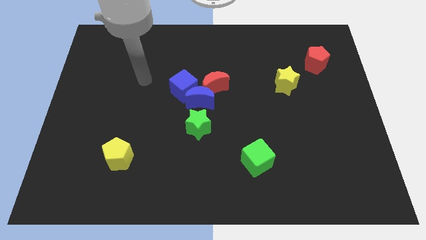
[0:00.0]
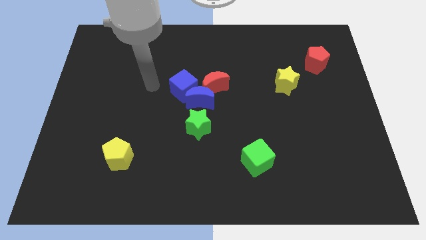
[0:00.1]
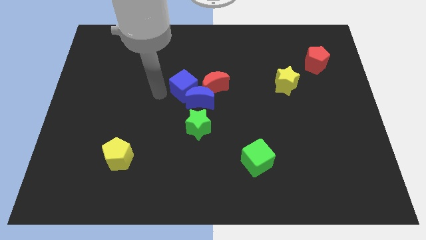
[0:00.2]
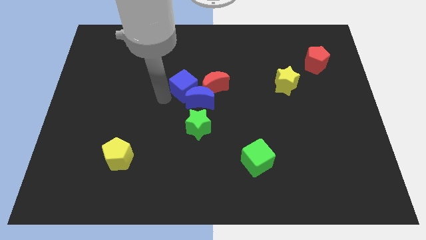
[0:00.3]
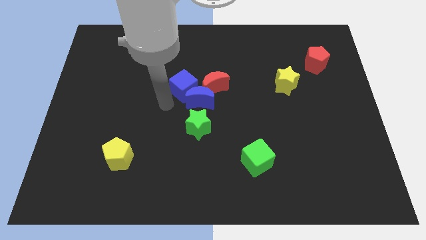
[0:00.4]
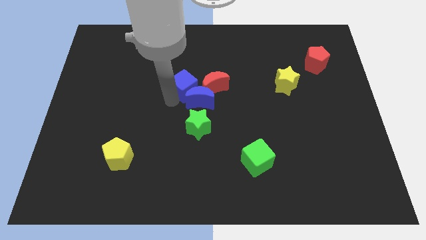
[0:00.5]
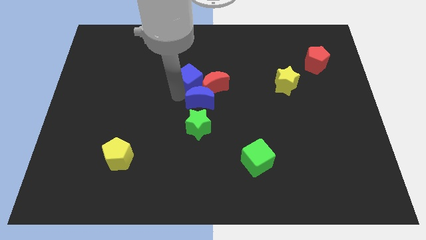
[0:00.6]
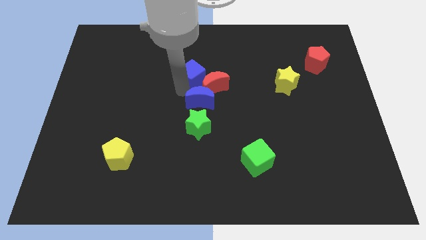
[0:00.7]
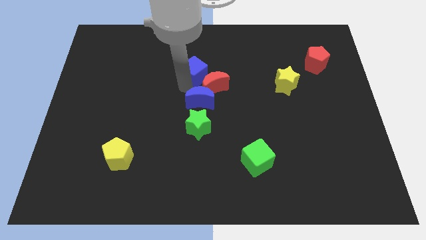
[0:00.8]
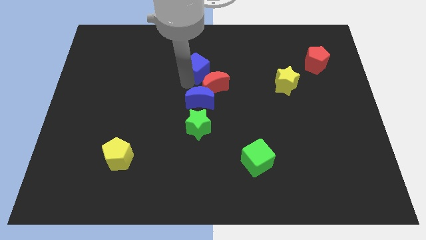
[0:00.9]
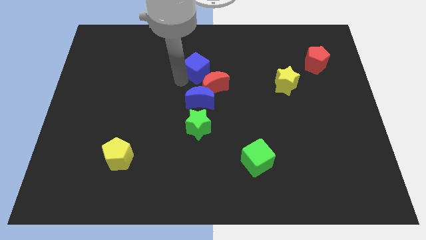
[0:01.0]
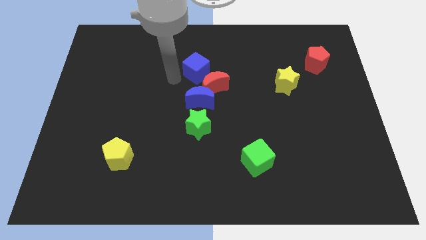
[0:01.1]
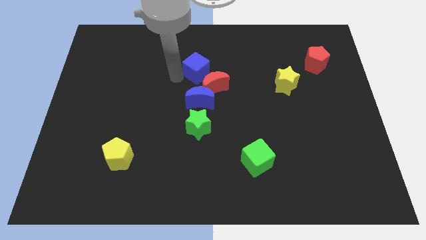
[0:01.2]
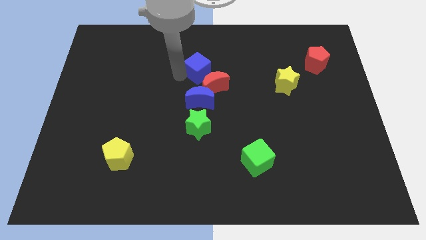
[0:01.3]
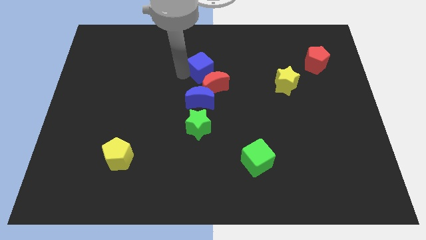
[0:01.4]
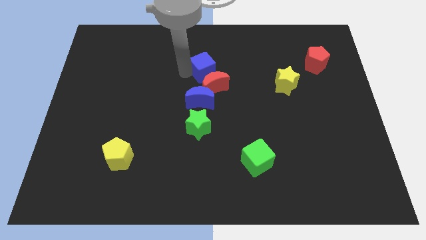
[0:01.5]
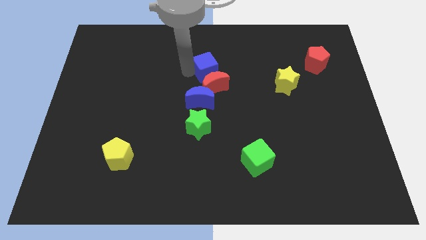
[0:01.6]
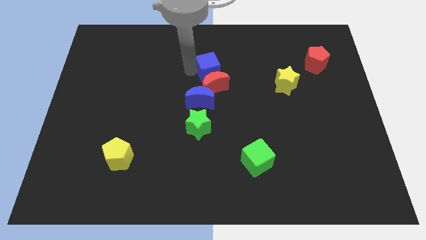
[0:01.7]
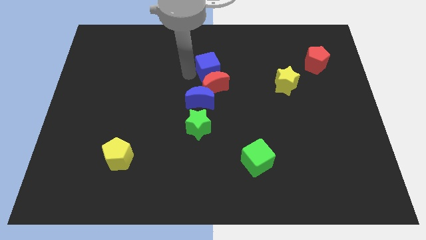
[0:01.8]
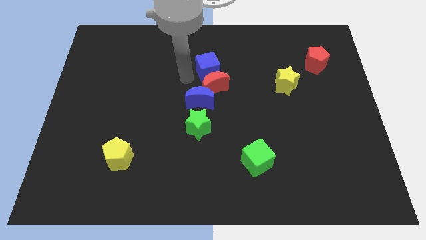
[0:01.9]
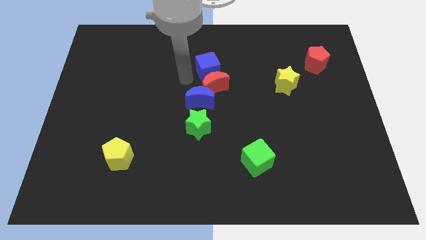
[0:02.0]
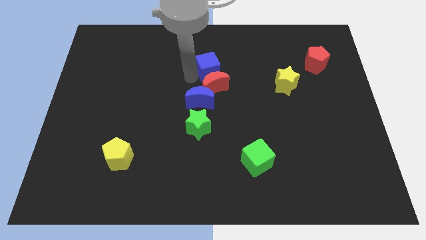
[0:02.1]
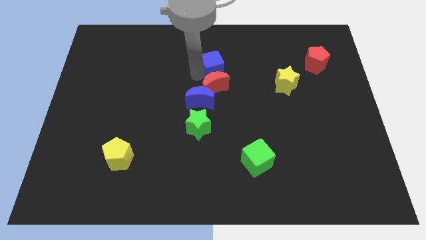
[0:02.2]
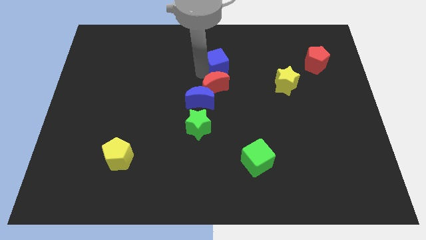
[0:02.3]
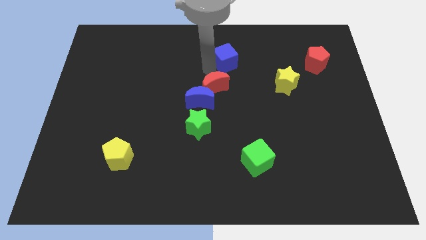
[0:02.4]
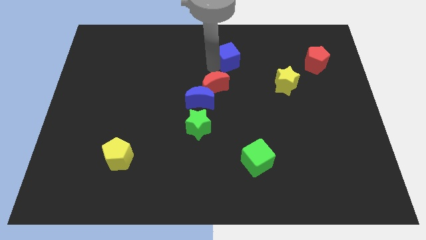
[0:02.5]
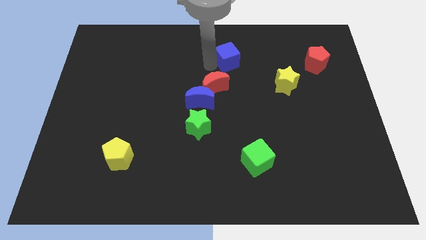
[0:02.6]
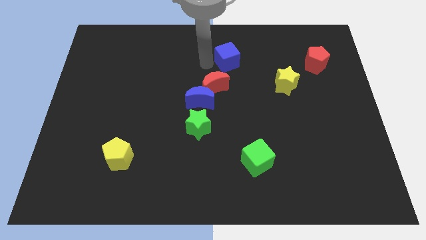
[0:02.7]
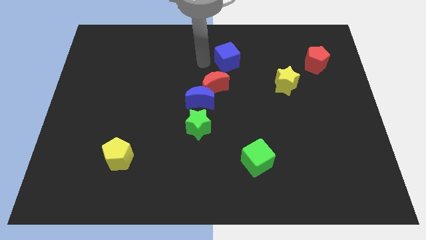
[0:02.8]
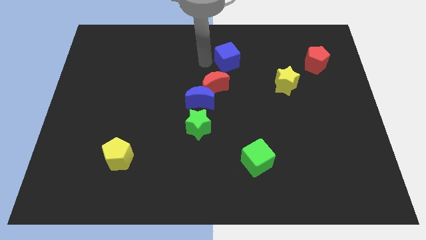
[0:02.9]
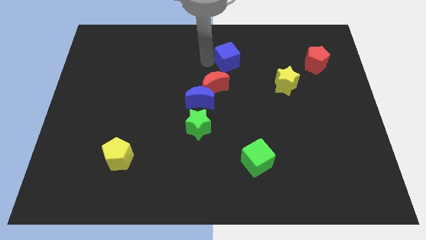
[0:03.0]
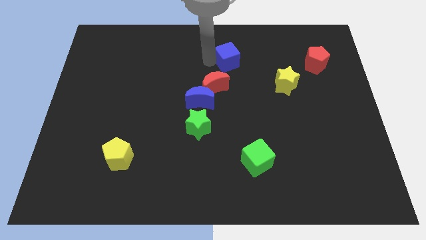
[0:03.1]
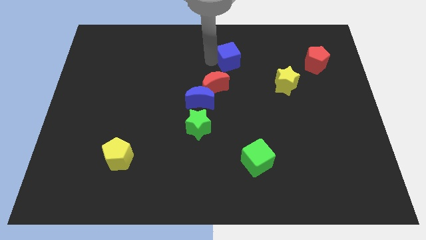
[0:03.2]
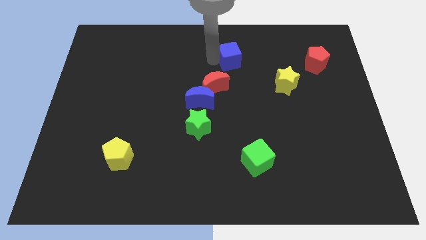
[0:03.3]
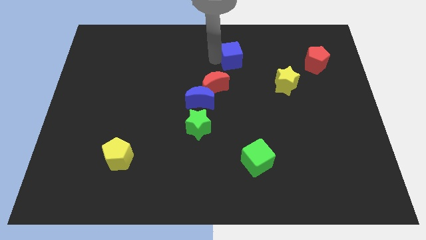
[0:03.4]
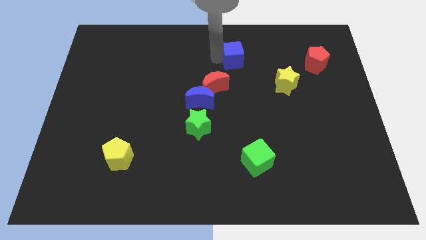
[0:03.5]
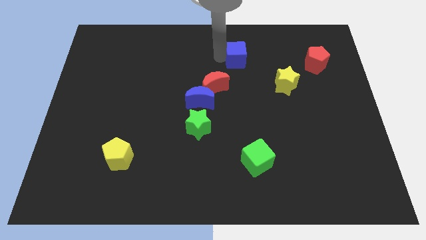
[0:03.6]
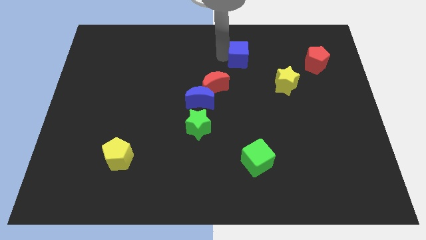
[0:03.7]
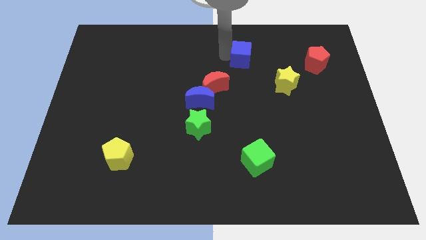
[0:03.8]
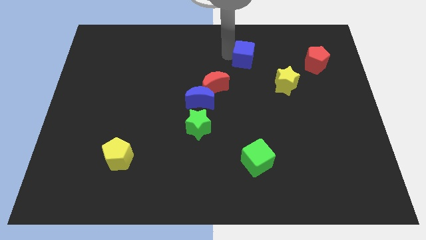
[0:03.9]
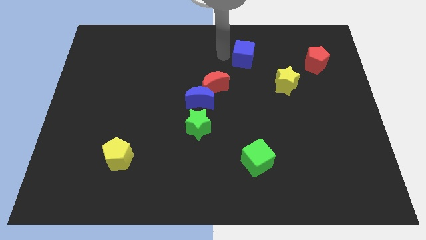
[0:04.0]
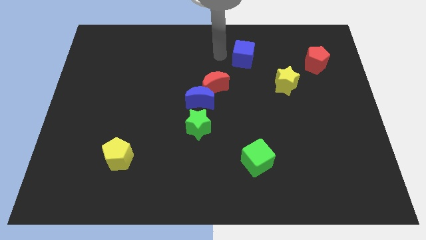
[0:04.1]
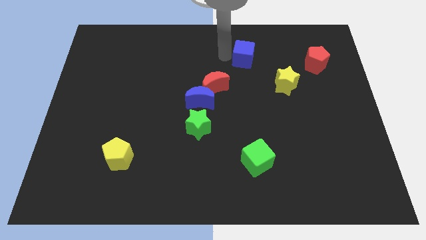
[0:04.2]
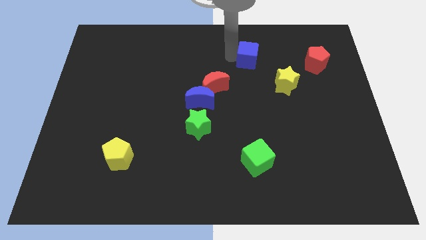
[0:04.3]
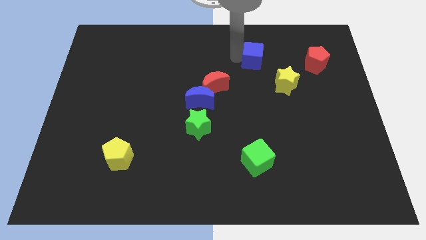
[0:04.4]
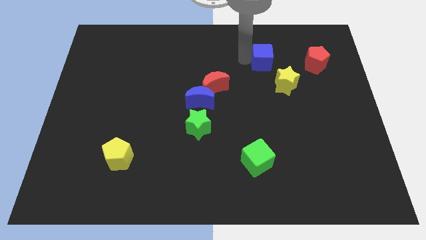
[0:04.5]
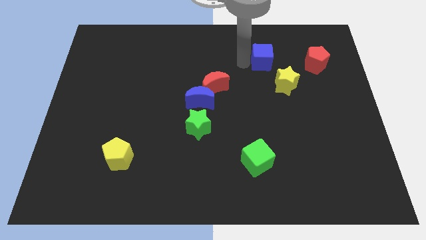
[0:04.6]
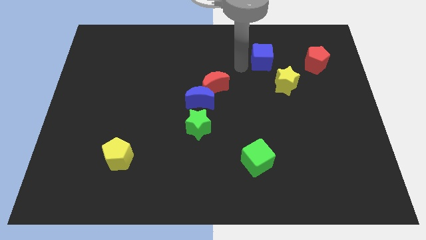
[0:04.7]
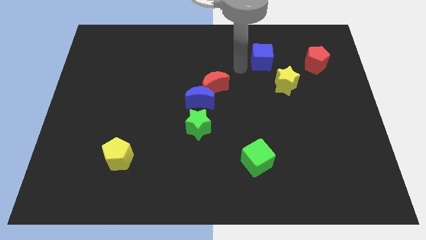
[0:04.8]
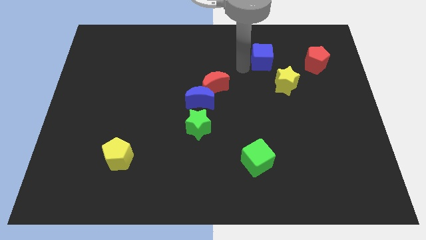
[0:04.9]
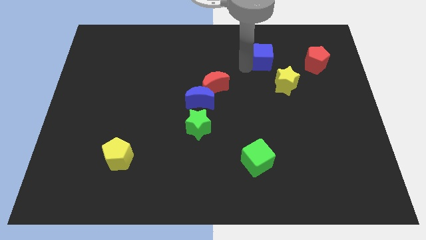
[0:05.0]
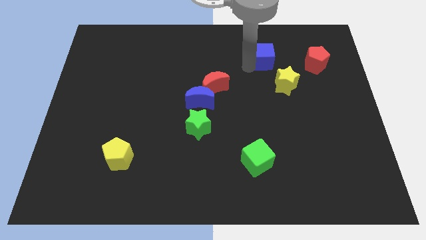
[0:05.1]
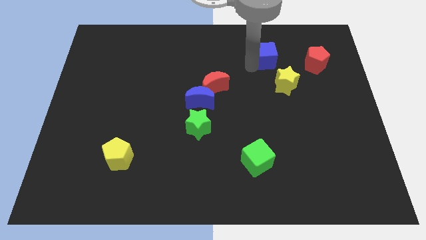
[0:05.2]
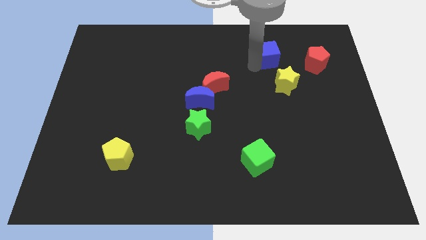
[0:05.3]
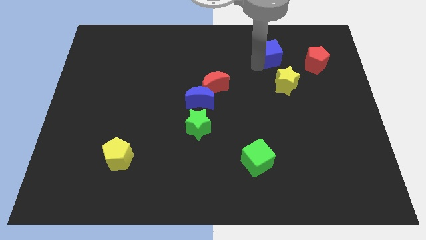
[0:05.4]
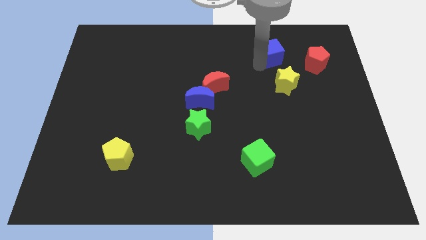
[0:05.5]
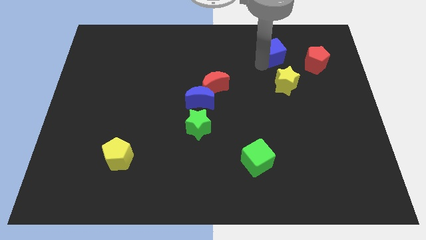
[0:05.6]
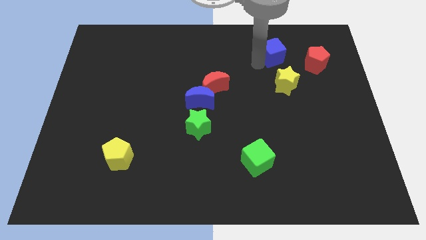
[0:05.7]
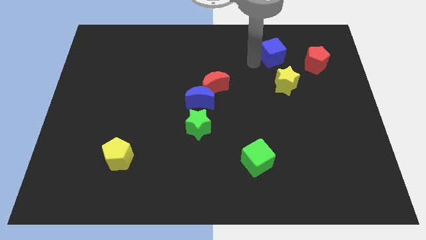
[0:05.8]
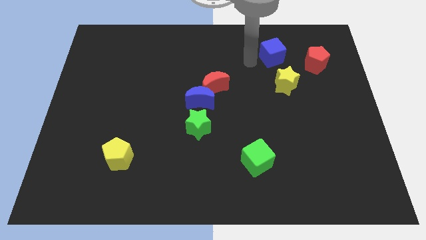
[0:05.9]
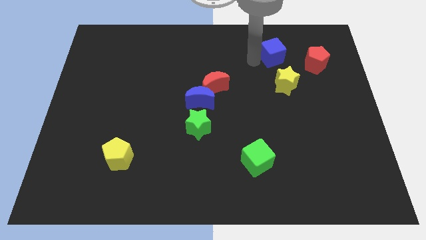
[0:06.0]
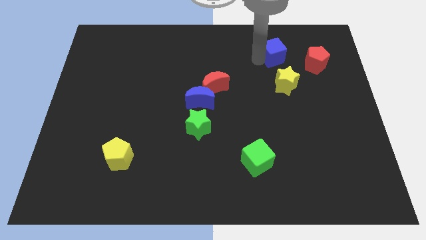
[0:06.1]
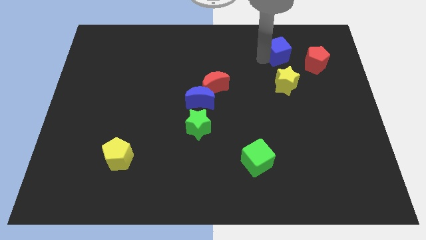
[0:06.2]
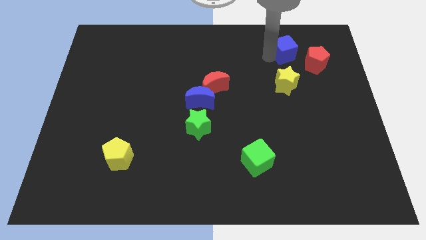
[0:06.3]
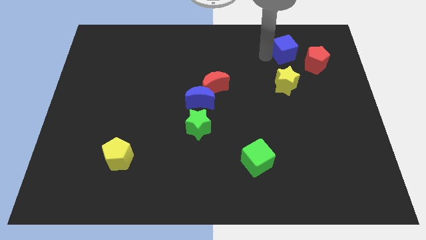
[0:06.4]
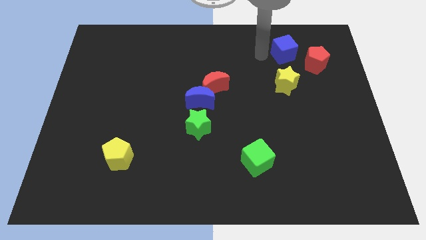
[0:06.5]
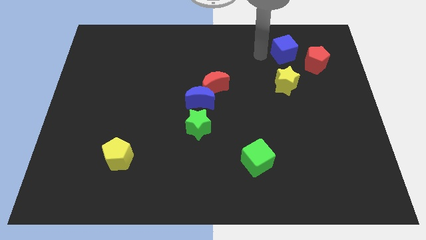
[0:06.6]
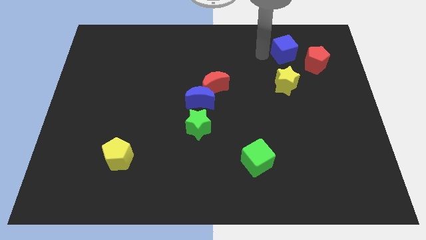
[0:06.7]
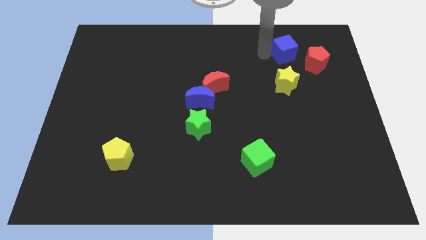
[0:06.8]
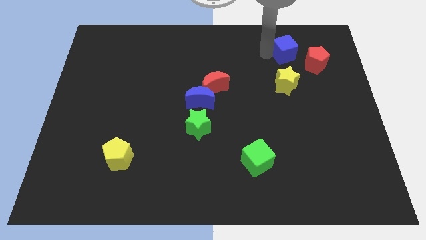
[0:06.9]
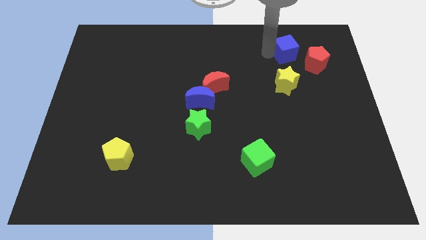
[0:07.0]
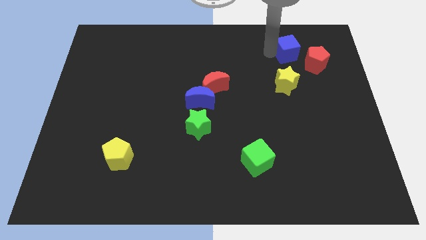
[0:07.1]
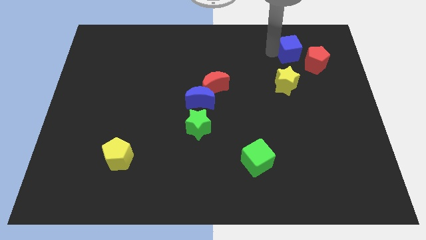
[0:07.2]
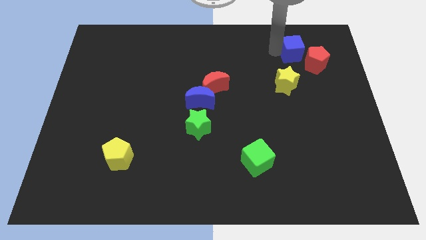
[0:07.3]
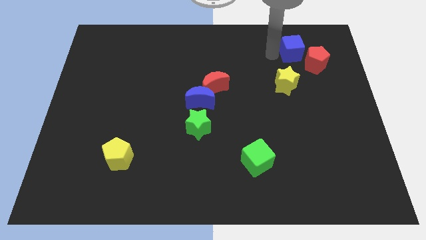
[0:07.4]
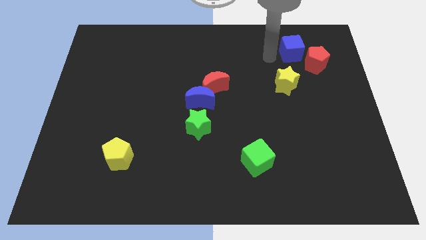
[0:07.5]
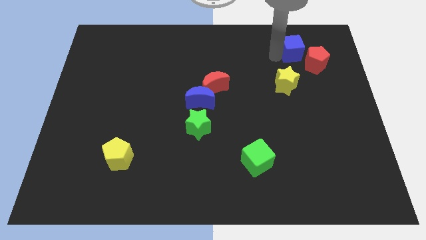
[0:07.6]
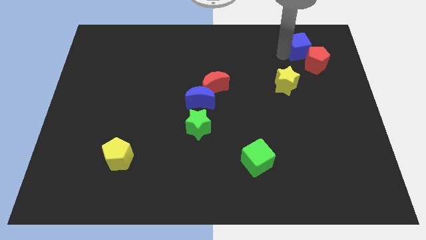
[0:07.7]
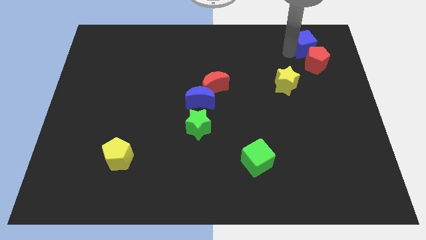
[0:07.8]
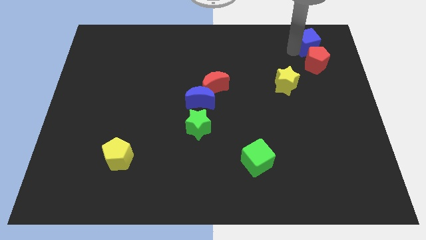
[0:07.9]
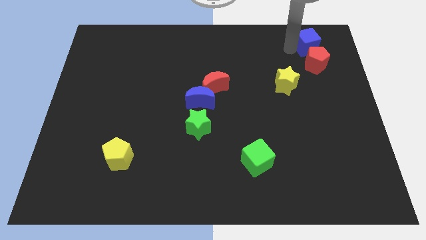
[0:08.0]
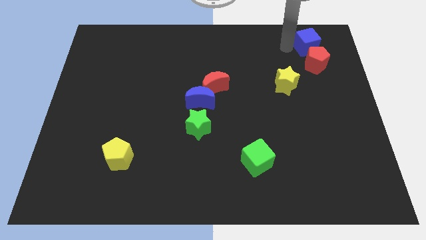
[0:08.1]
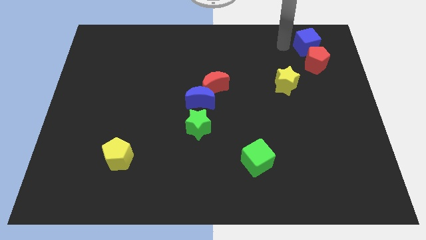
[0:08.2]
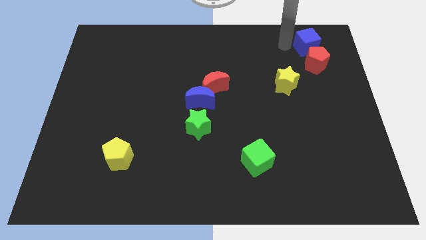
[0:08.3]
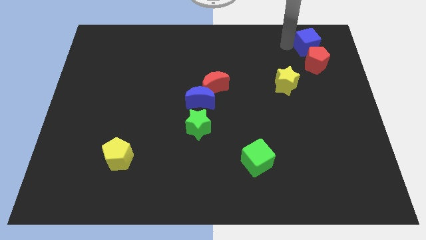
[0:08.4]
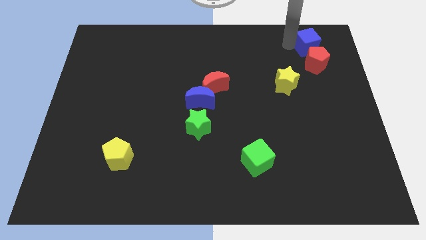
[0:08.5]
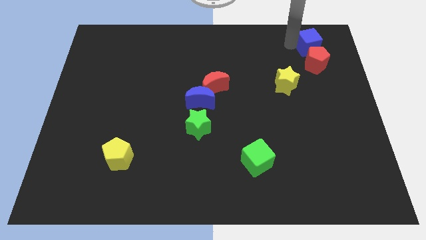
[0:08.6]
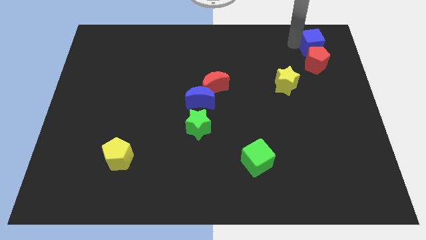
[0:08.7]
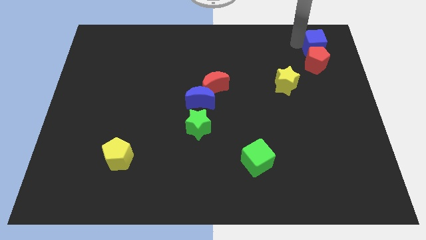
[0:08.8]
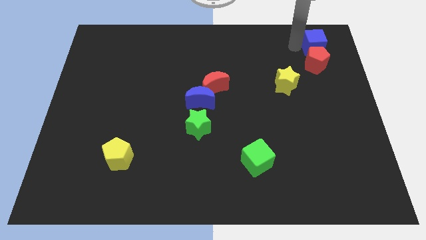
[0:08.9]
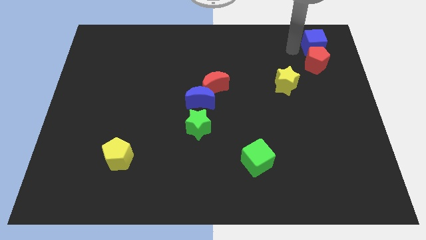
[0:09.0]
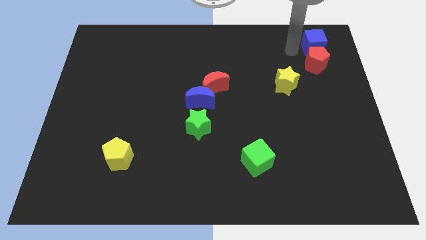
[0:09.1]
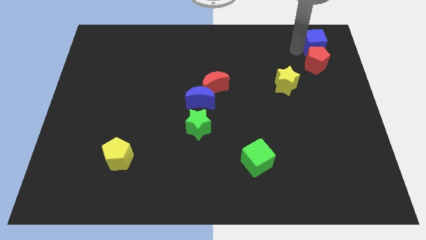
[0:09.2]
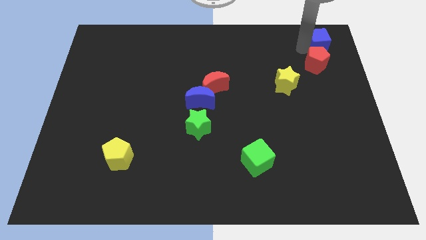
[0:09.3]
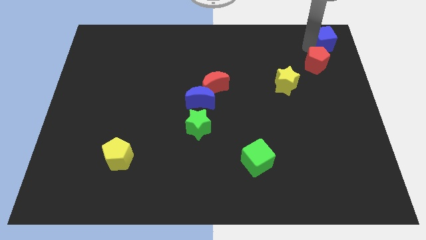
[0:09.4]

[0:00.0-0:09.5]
push the blue cube to the top right of the board
